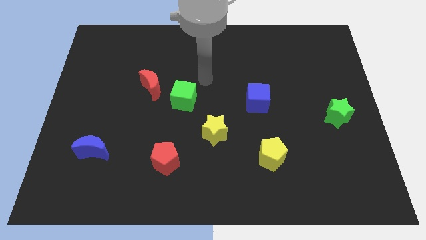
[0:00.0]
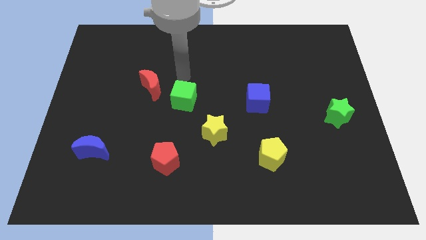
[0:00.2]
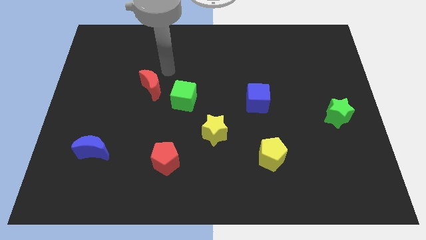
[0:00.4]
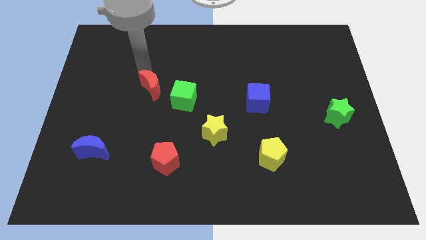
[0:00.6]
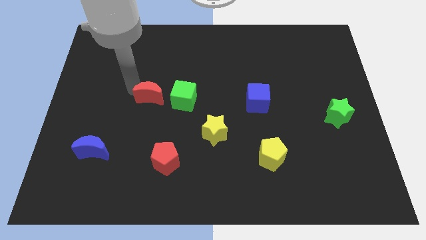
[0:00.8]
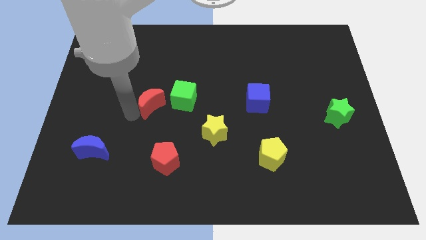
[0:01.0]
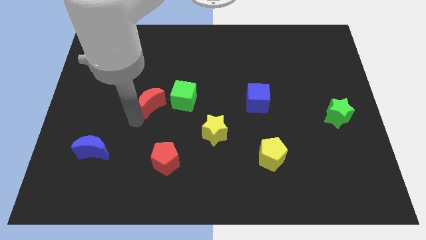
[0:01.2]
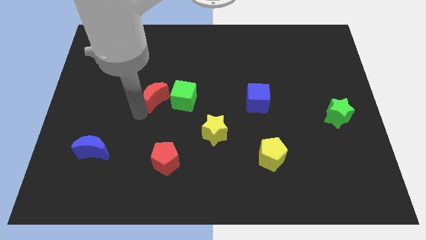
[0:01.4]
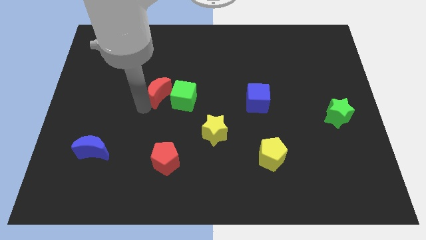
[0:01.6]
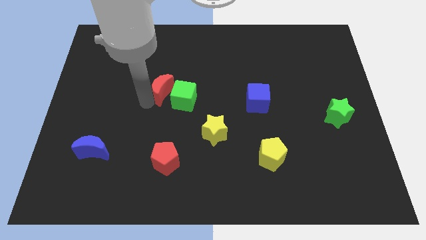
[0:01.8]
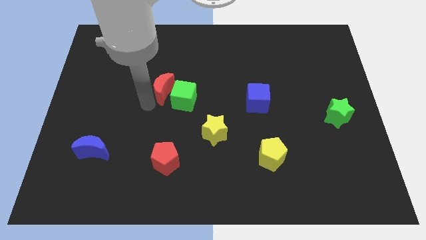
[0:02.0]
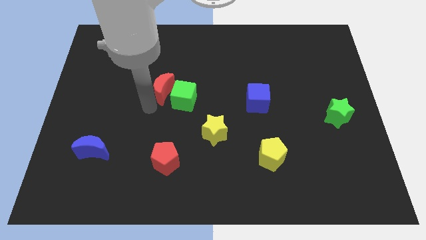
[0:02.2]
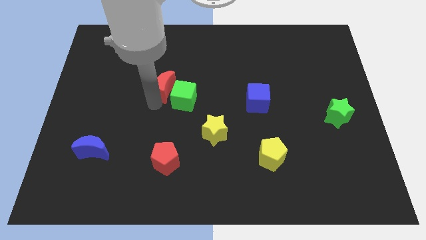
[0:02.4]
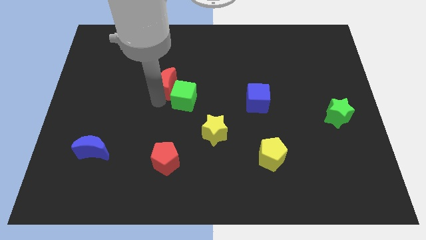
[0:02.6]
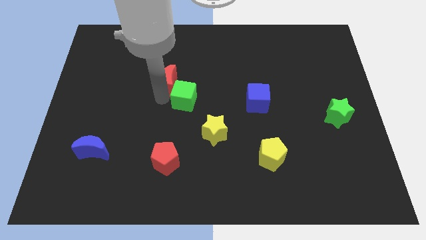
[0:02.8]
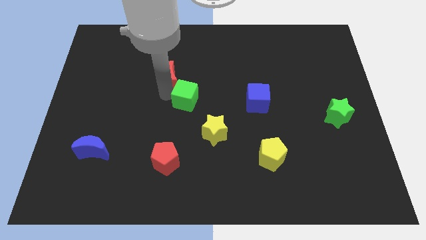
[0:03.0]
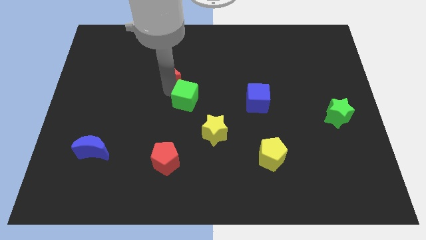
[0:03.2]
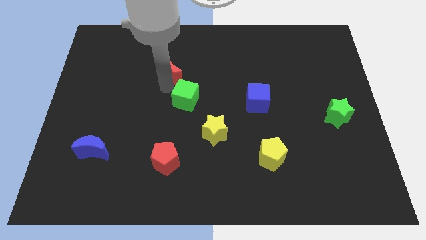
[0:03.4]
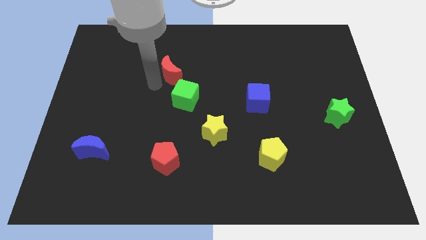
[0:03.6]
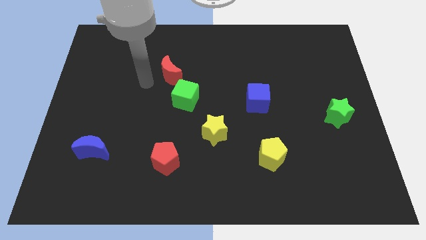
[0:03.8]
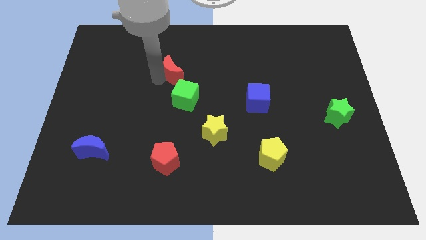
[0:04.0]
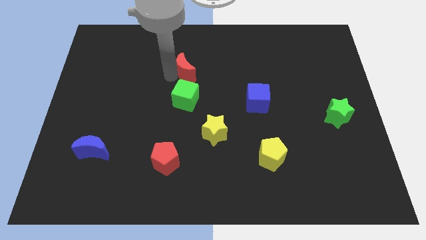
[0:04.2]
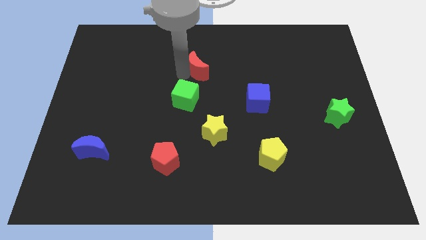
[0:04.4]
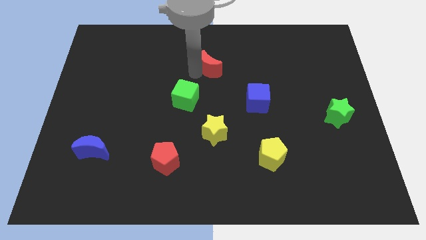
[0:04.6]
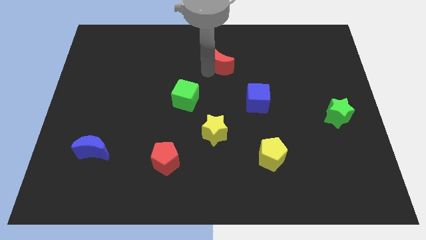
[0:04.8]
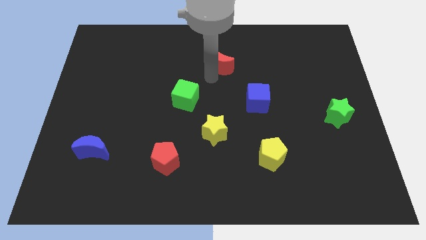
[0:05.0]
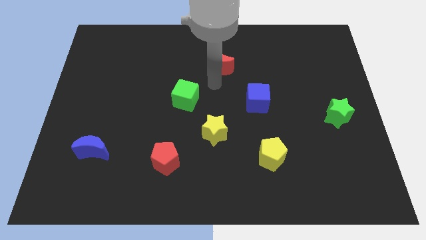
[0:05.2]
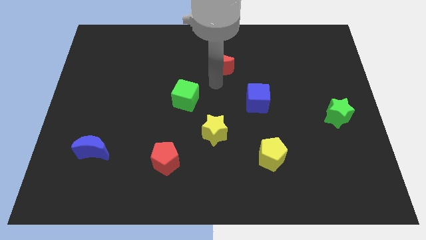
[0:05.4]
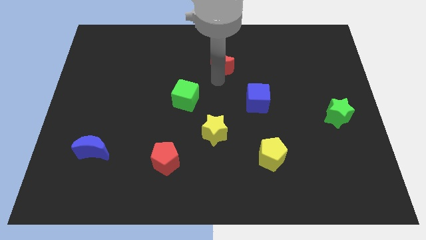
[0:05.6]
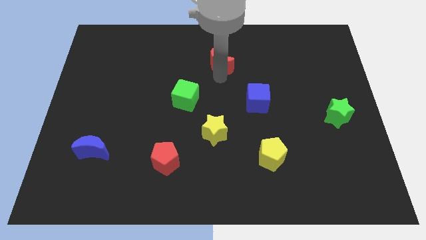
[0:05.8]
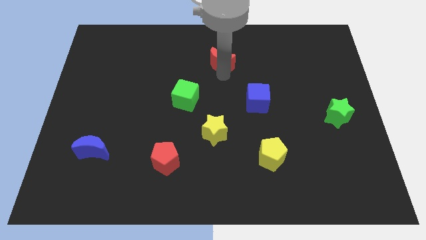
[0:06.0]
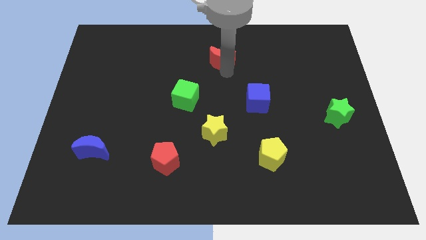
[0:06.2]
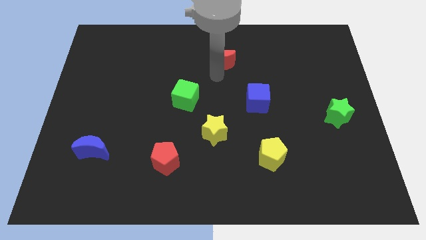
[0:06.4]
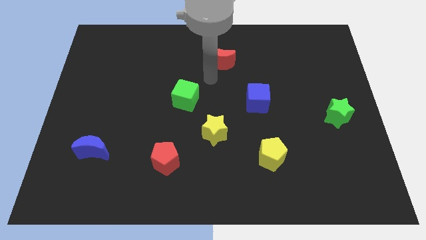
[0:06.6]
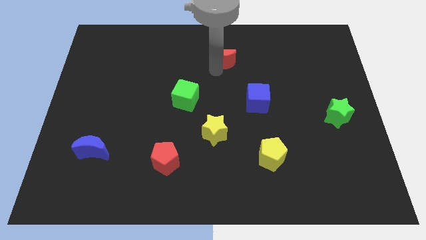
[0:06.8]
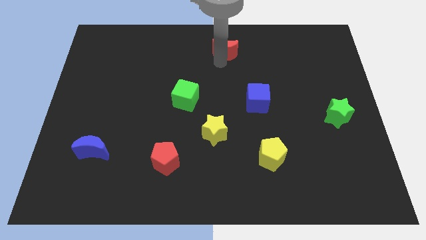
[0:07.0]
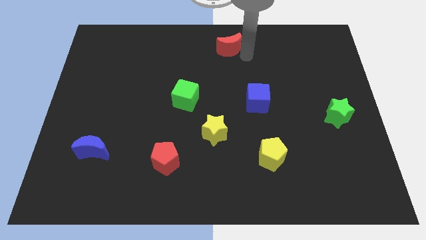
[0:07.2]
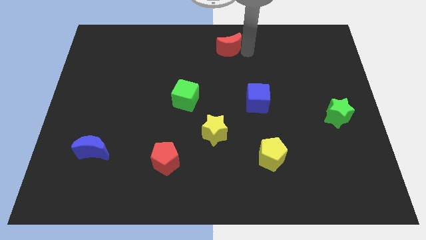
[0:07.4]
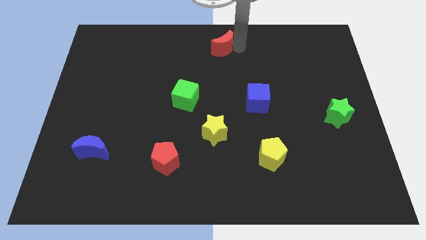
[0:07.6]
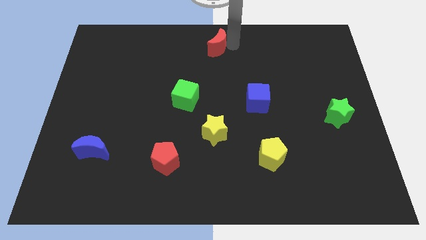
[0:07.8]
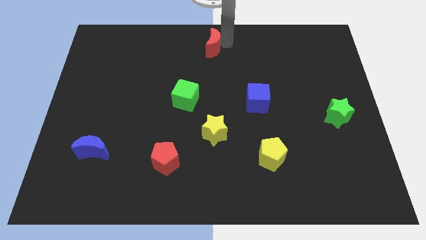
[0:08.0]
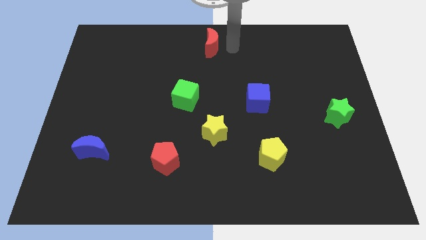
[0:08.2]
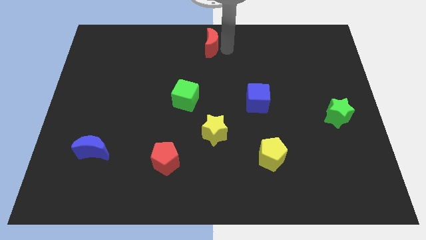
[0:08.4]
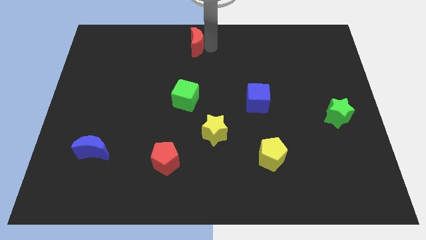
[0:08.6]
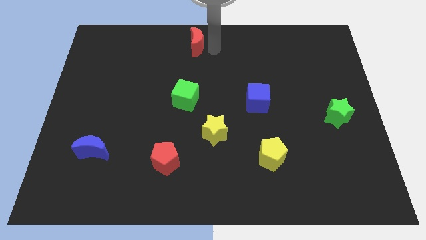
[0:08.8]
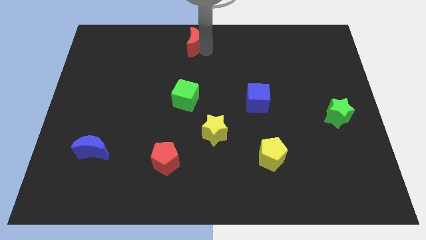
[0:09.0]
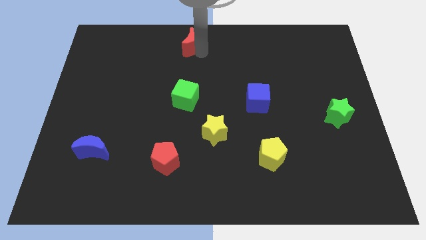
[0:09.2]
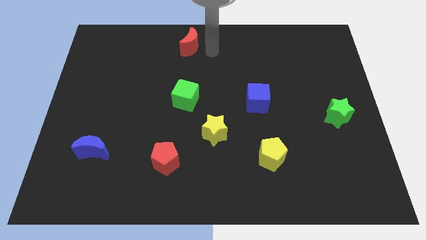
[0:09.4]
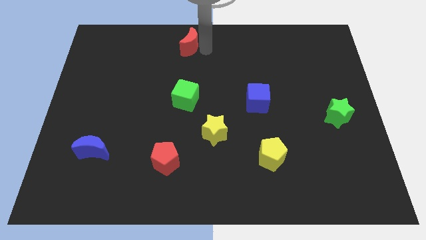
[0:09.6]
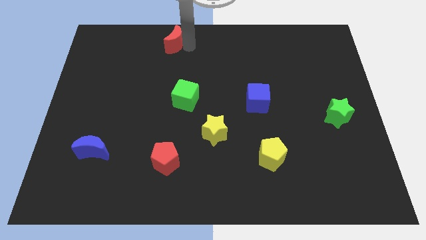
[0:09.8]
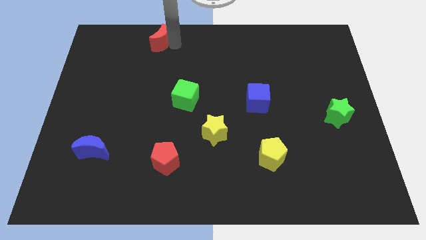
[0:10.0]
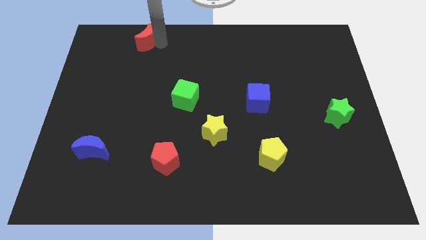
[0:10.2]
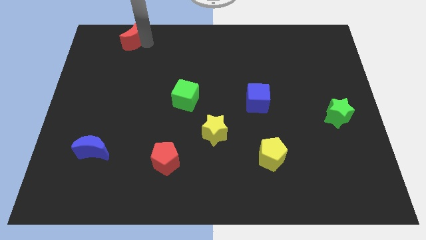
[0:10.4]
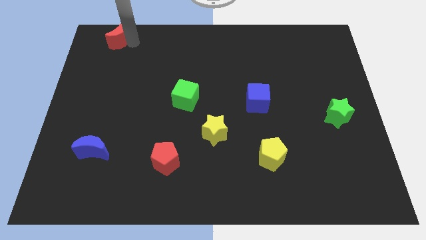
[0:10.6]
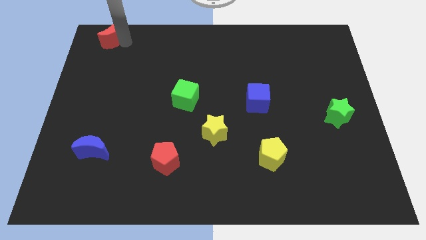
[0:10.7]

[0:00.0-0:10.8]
put the red moon to the top left

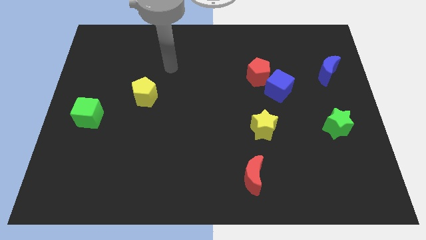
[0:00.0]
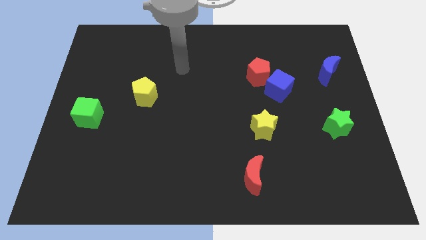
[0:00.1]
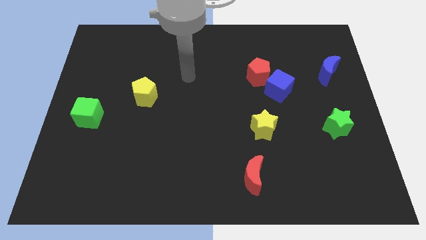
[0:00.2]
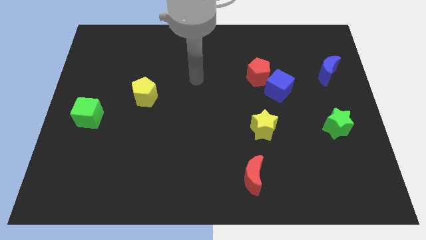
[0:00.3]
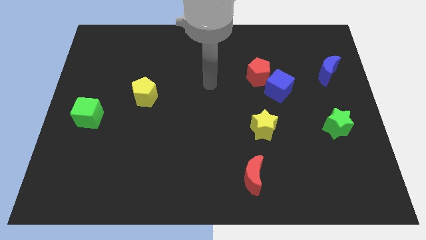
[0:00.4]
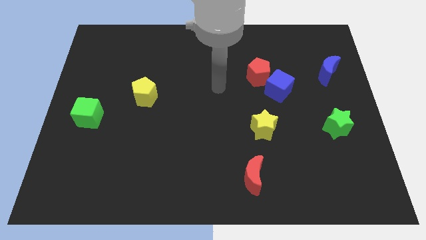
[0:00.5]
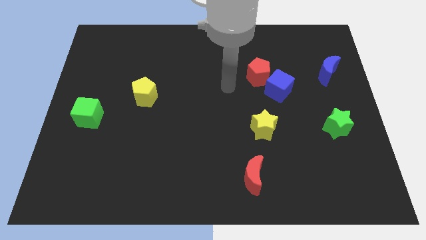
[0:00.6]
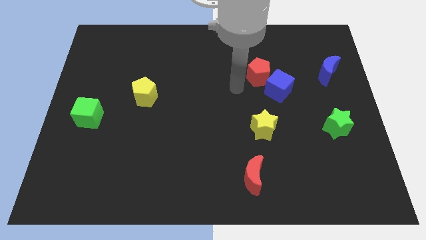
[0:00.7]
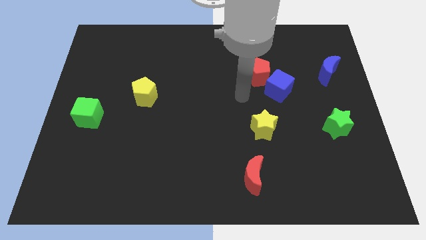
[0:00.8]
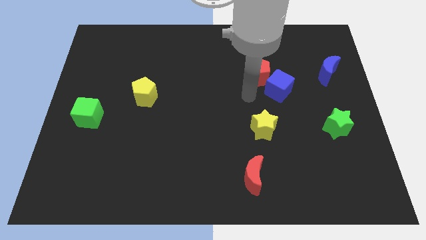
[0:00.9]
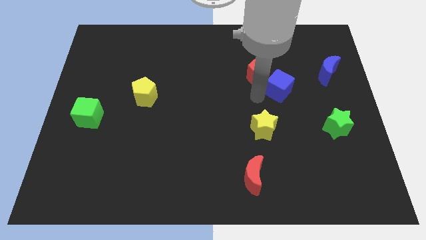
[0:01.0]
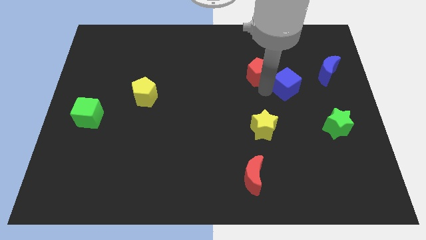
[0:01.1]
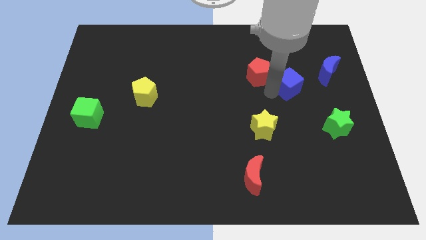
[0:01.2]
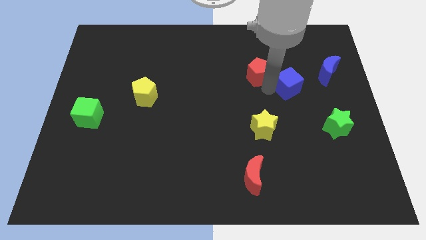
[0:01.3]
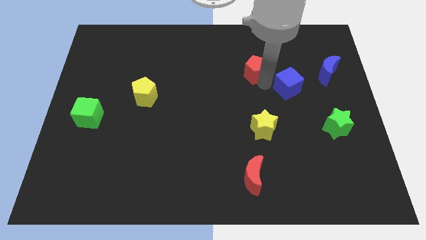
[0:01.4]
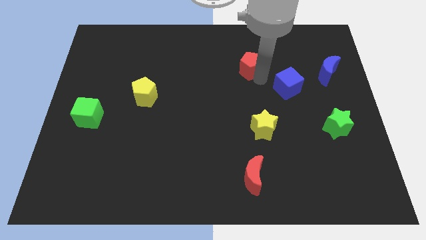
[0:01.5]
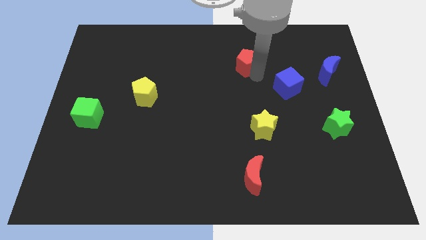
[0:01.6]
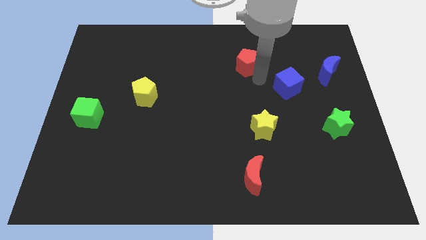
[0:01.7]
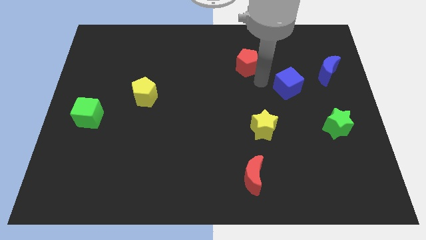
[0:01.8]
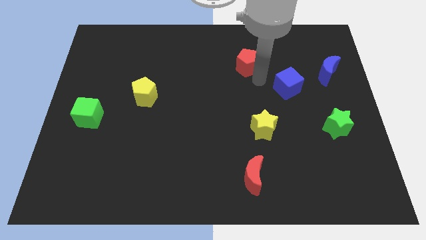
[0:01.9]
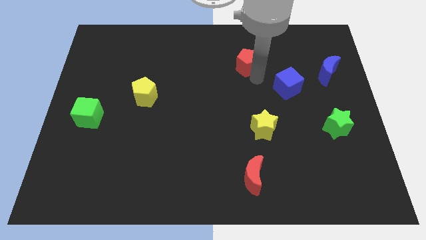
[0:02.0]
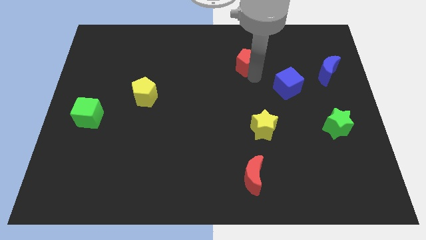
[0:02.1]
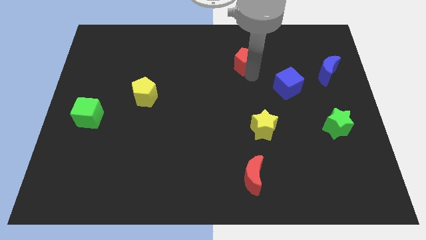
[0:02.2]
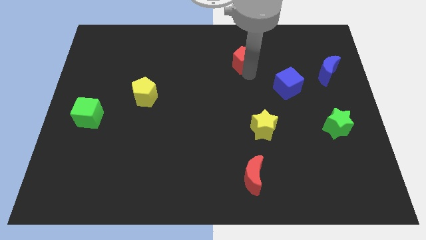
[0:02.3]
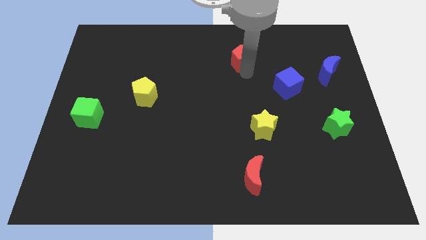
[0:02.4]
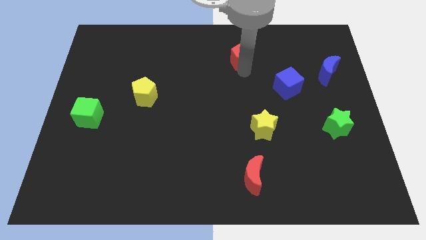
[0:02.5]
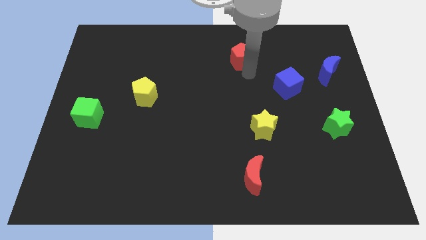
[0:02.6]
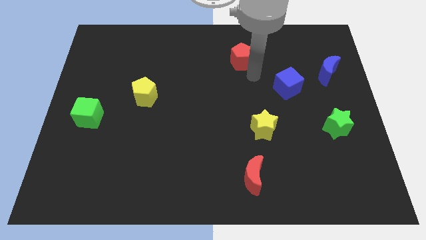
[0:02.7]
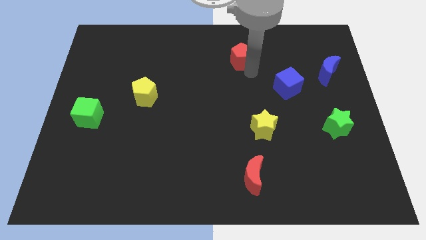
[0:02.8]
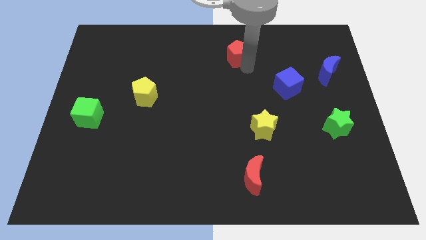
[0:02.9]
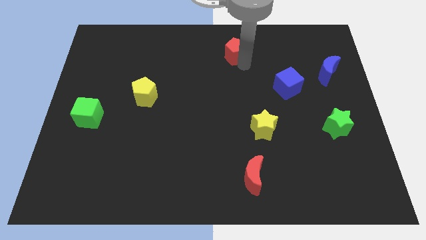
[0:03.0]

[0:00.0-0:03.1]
slide the red pentagon to the top
